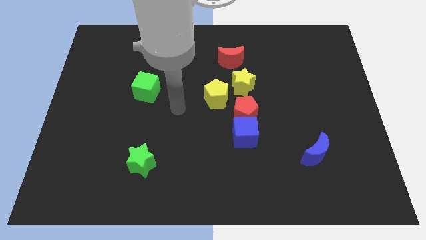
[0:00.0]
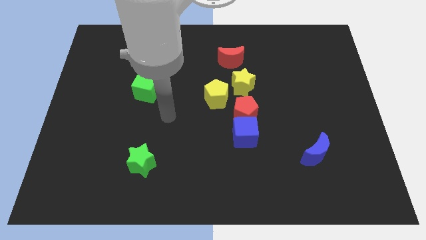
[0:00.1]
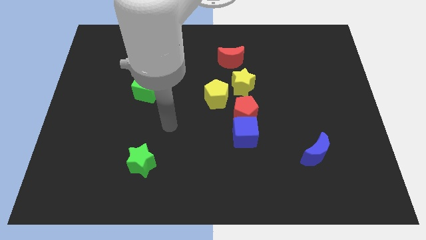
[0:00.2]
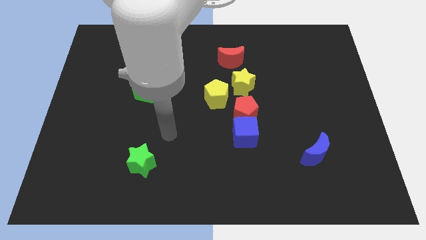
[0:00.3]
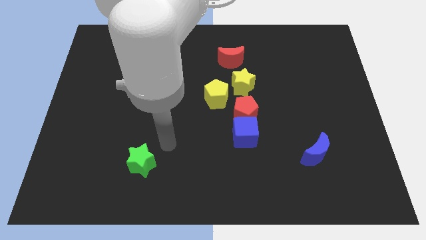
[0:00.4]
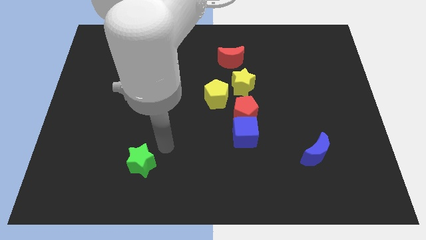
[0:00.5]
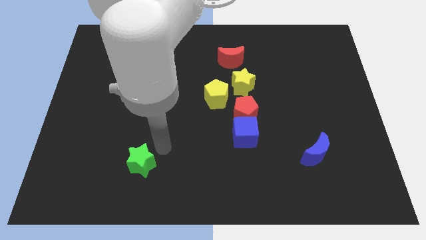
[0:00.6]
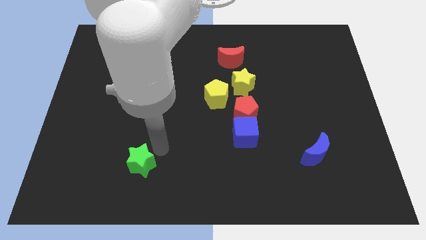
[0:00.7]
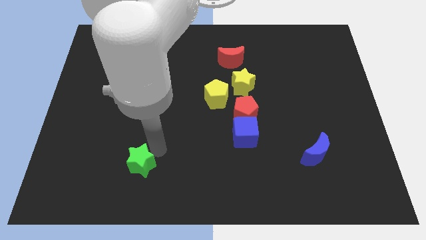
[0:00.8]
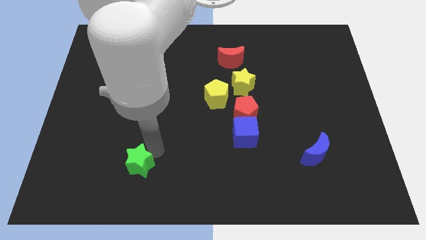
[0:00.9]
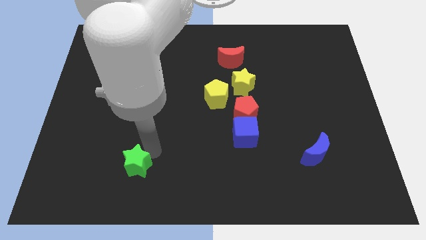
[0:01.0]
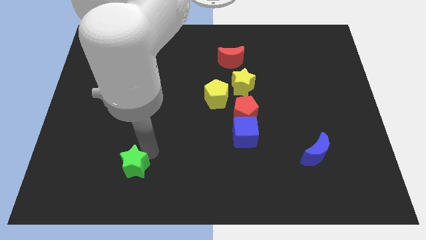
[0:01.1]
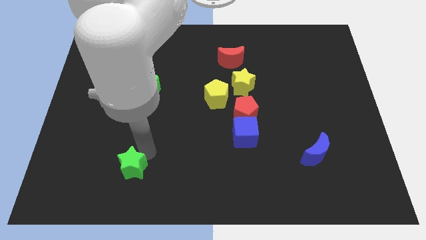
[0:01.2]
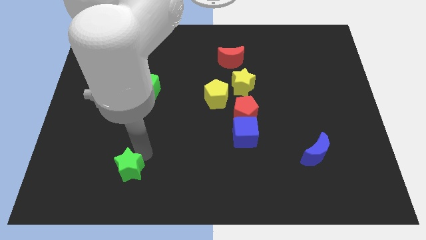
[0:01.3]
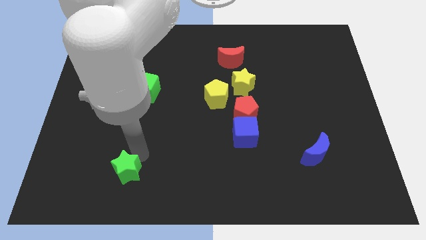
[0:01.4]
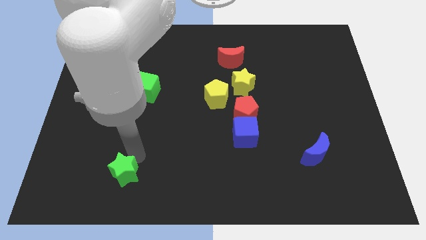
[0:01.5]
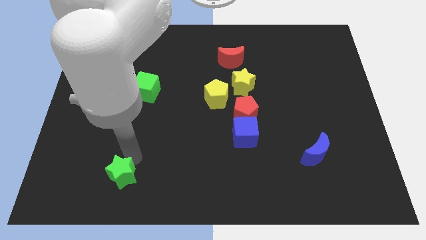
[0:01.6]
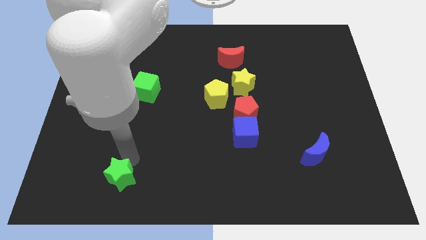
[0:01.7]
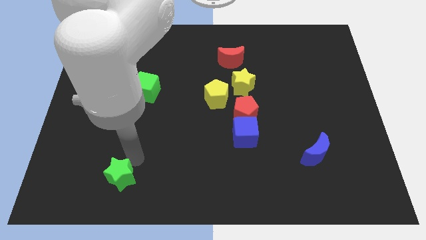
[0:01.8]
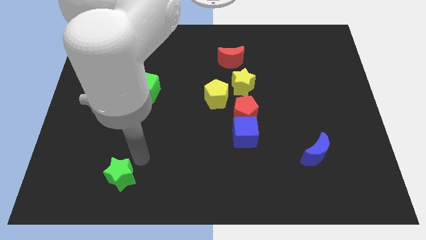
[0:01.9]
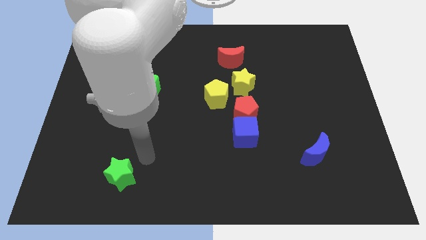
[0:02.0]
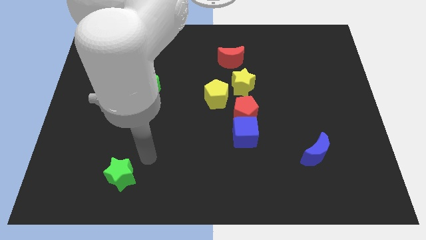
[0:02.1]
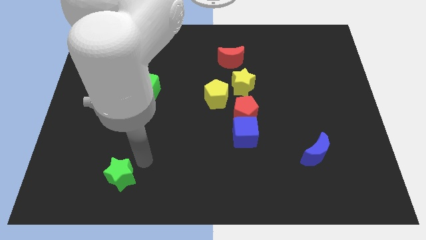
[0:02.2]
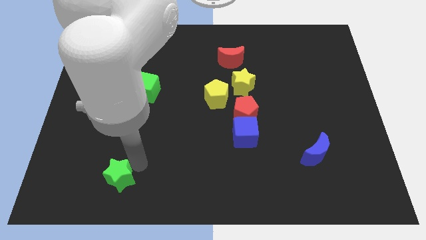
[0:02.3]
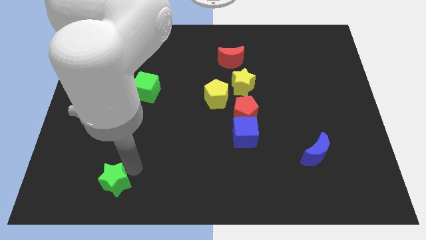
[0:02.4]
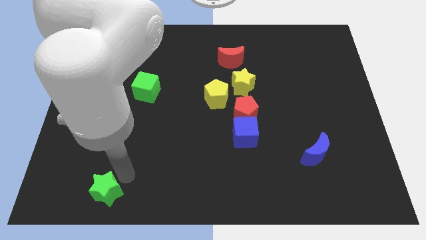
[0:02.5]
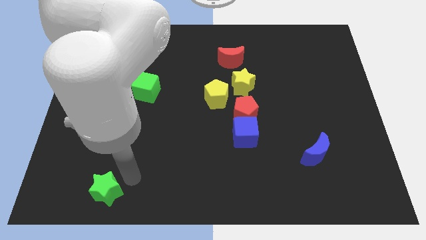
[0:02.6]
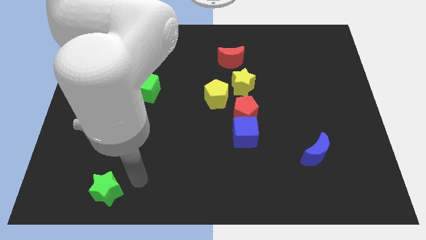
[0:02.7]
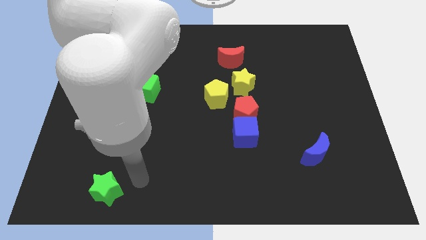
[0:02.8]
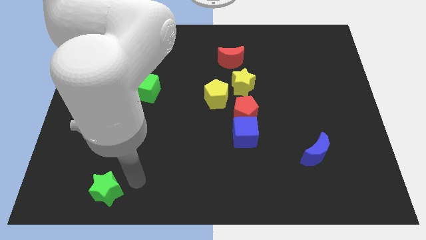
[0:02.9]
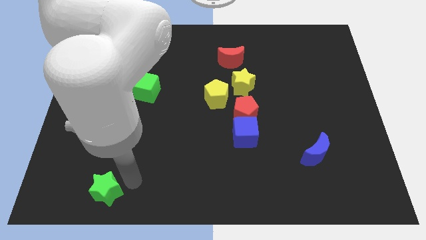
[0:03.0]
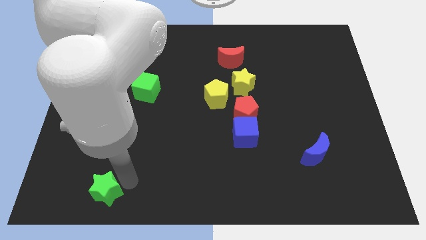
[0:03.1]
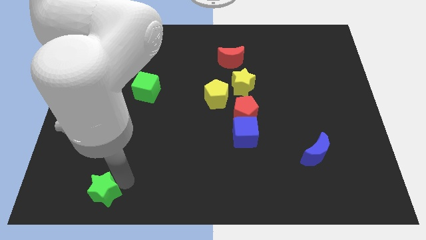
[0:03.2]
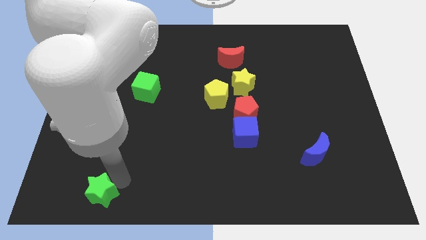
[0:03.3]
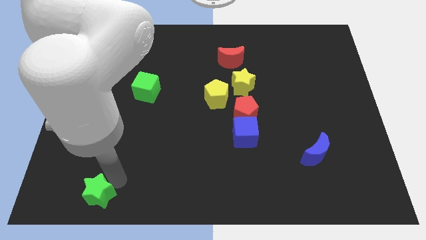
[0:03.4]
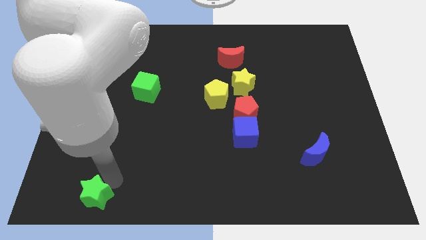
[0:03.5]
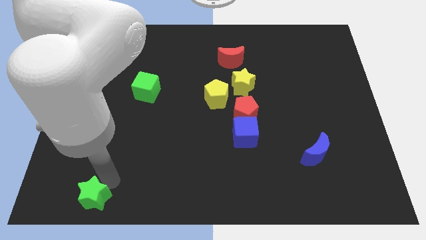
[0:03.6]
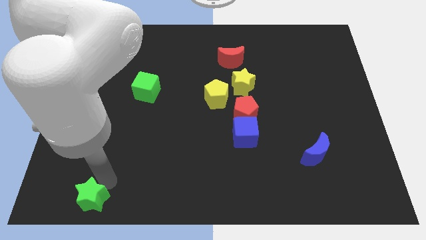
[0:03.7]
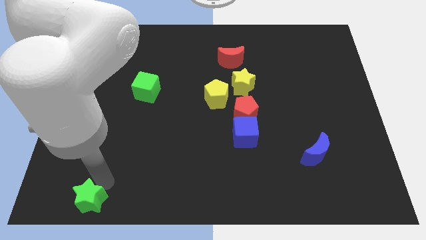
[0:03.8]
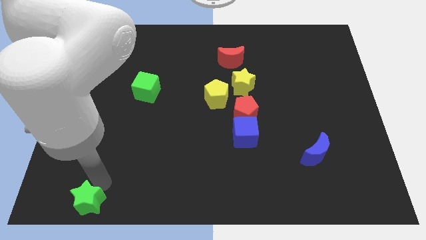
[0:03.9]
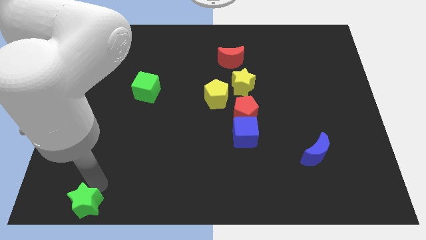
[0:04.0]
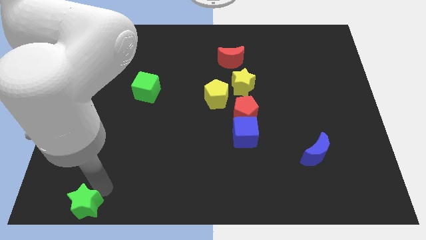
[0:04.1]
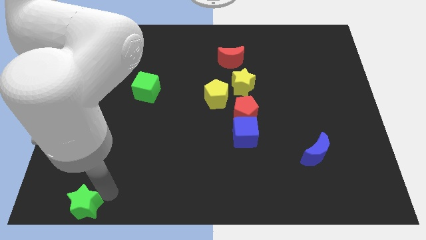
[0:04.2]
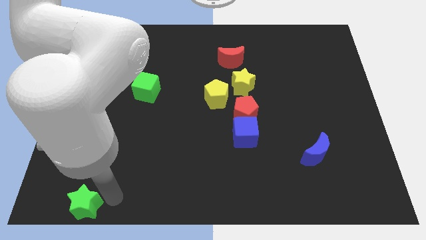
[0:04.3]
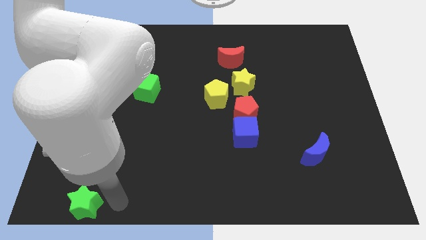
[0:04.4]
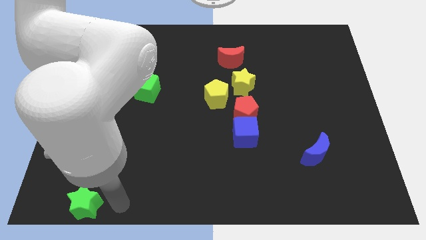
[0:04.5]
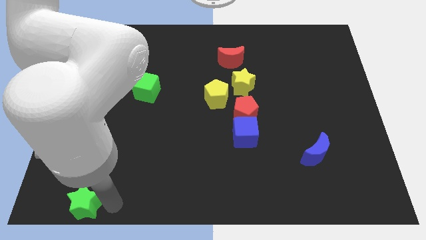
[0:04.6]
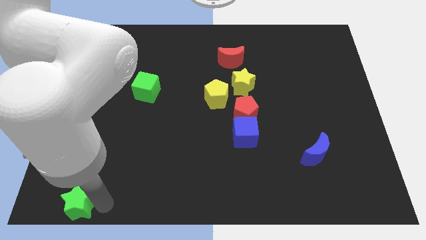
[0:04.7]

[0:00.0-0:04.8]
slide the green star to the lower left corner

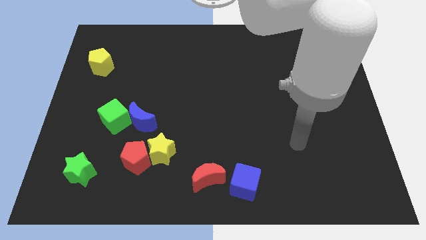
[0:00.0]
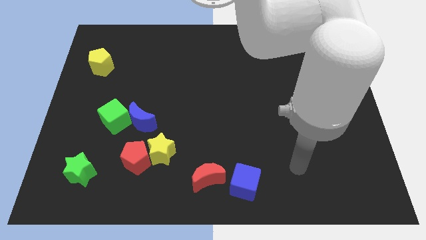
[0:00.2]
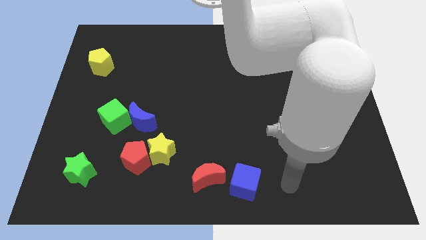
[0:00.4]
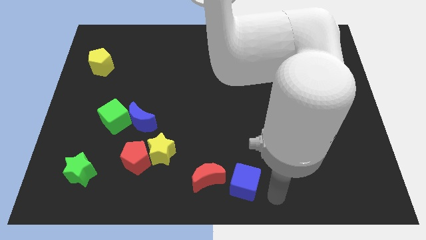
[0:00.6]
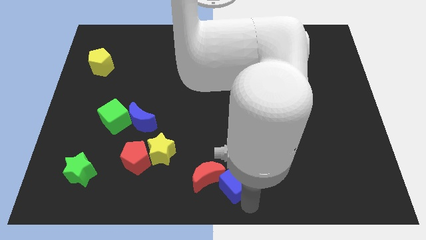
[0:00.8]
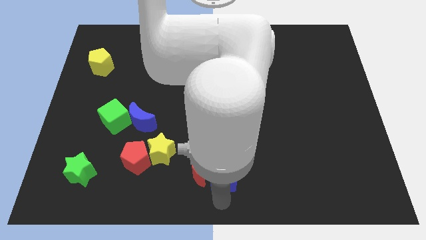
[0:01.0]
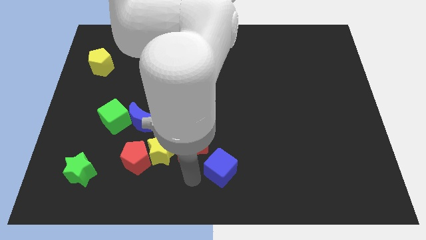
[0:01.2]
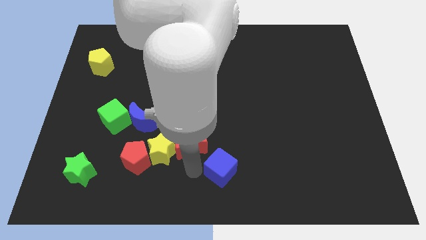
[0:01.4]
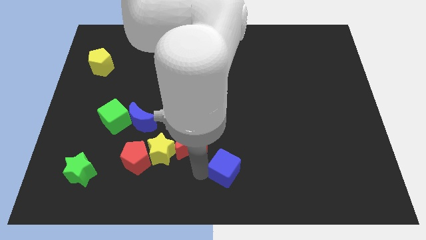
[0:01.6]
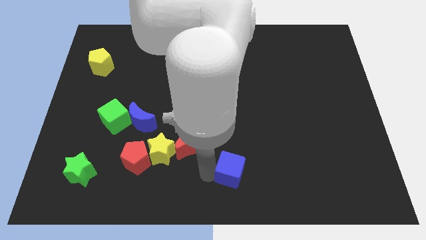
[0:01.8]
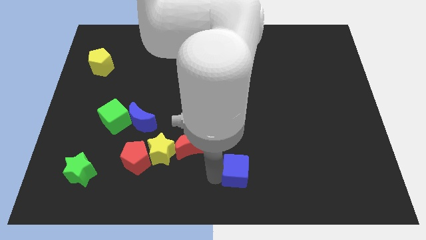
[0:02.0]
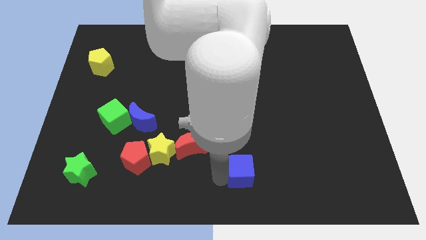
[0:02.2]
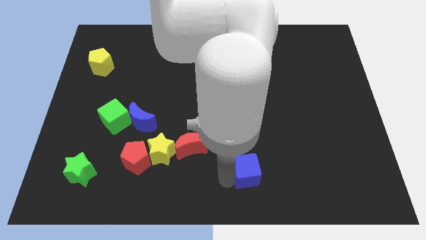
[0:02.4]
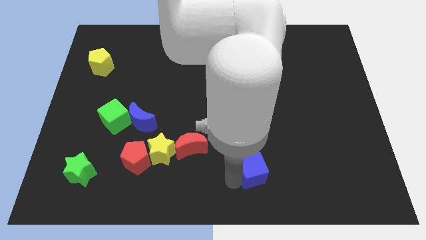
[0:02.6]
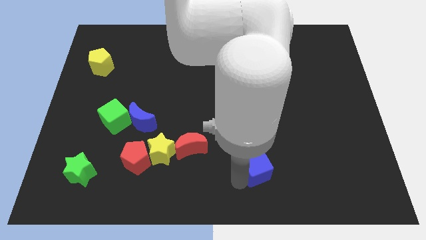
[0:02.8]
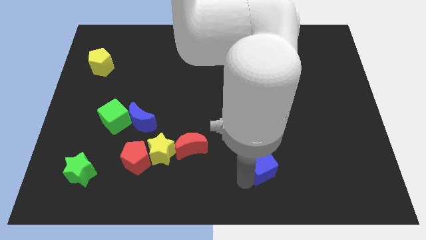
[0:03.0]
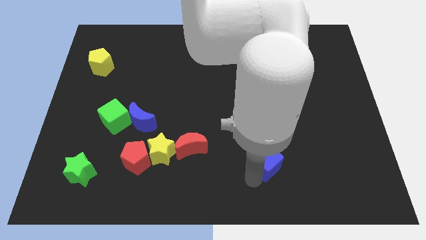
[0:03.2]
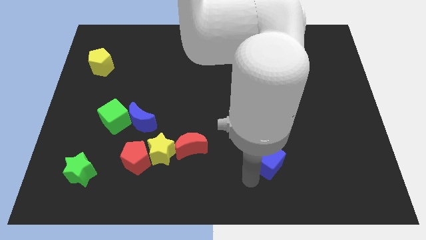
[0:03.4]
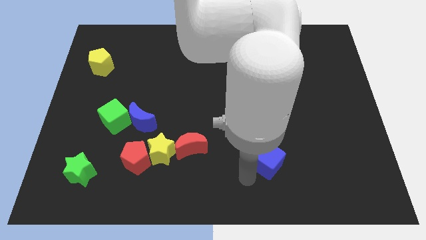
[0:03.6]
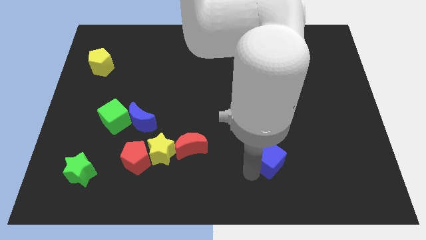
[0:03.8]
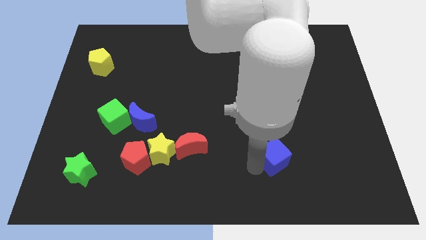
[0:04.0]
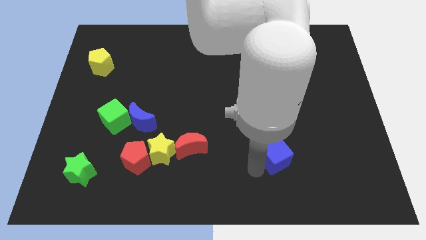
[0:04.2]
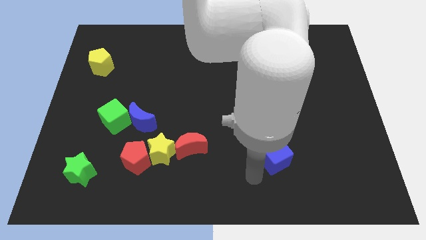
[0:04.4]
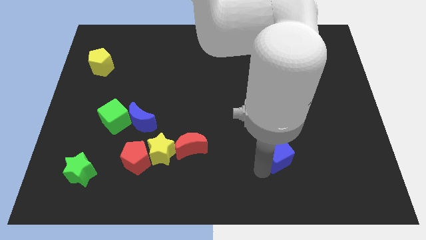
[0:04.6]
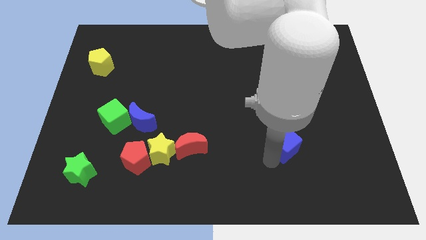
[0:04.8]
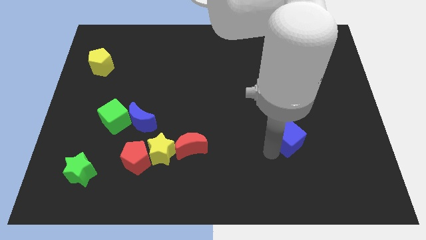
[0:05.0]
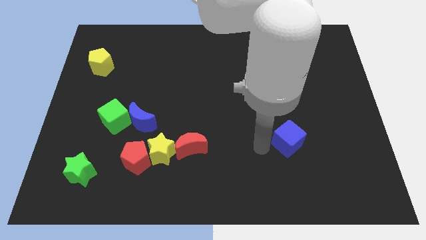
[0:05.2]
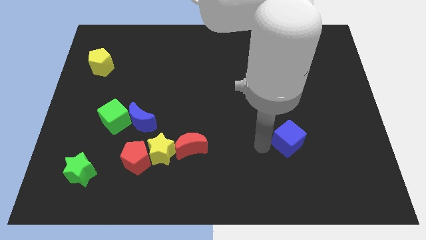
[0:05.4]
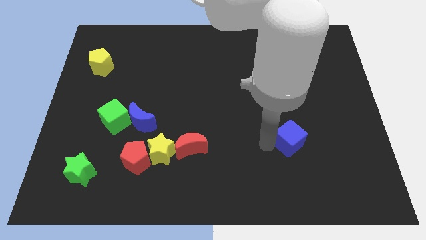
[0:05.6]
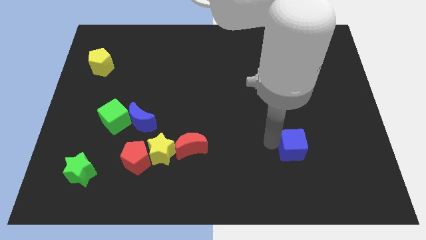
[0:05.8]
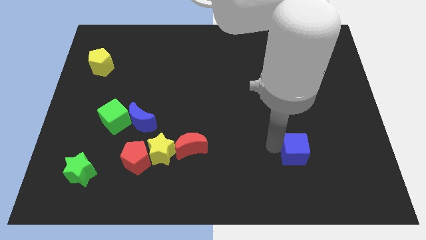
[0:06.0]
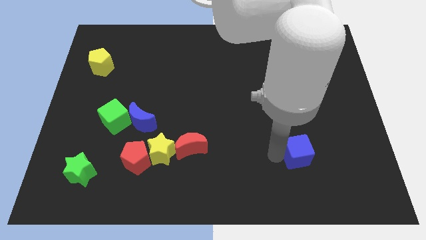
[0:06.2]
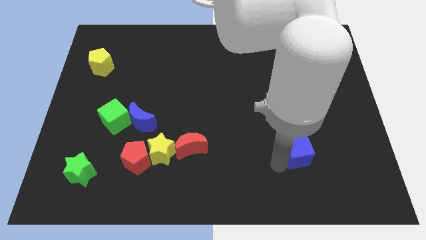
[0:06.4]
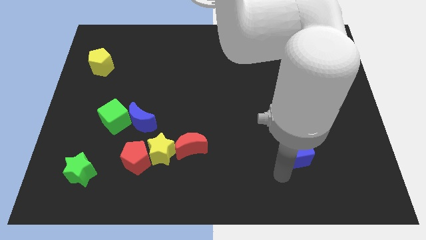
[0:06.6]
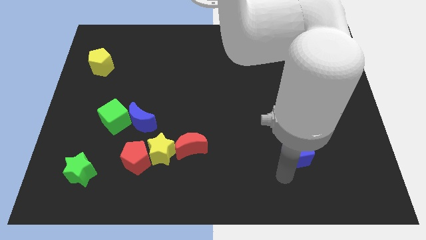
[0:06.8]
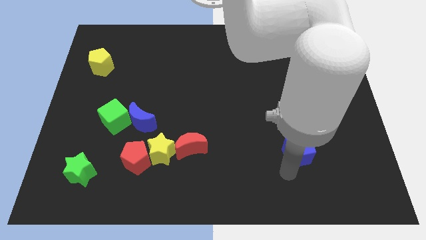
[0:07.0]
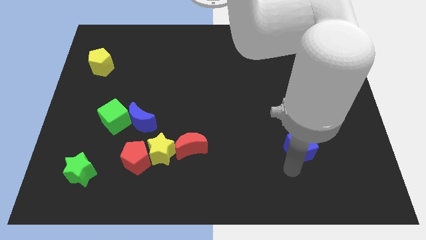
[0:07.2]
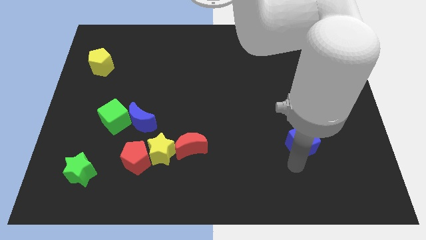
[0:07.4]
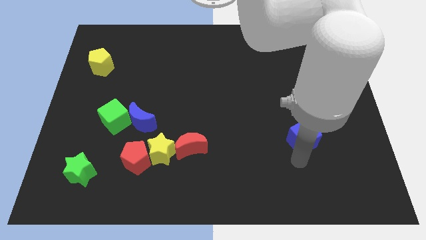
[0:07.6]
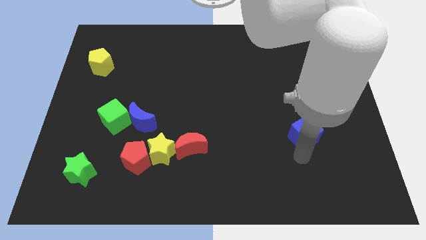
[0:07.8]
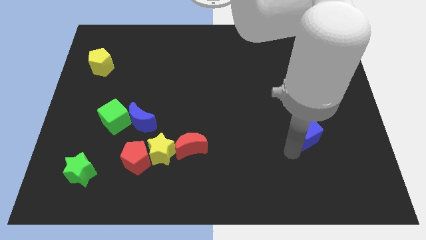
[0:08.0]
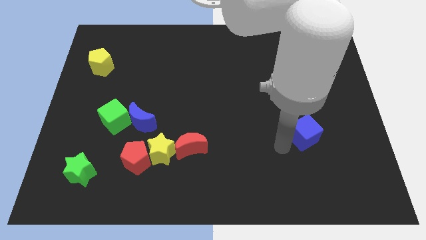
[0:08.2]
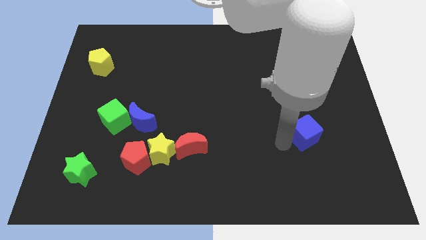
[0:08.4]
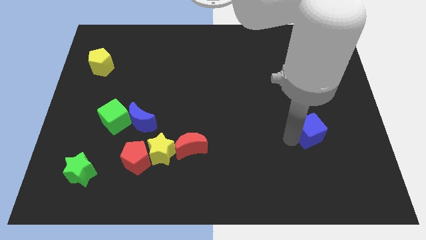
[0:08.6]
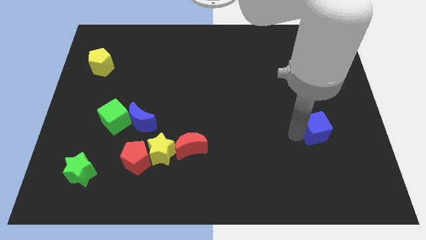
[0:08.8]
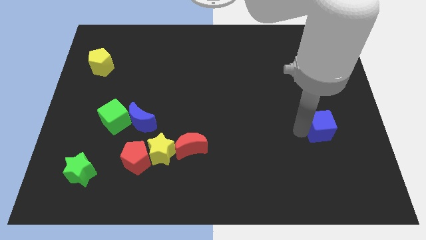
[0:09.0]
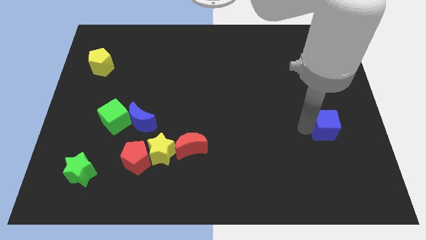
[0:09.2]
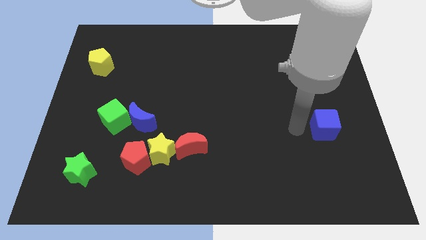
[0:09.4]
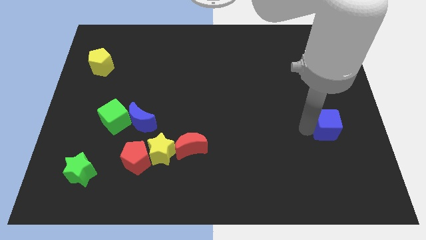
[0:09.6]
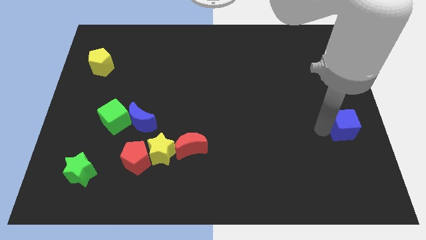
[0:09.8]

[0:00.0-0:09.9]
move the blue cube to the center right
